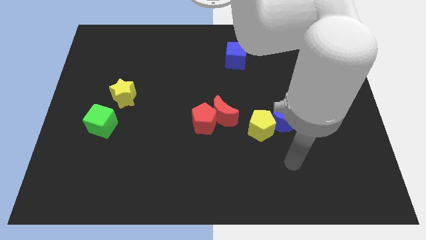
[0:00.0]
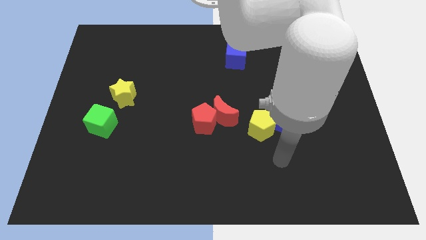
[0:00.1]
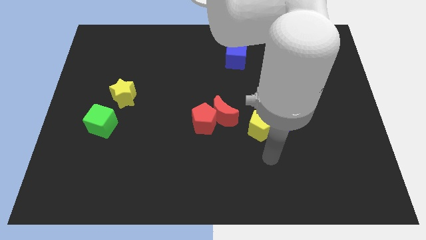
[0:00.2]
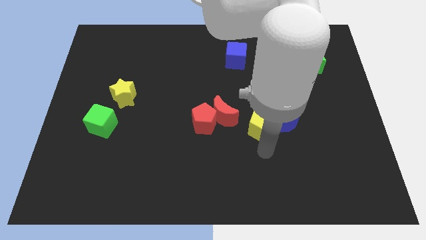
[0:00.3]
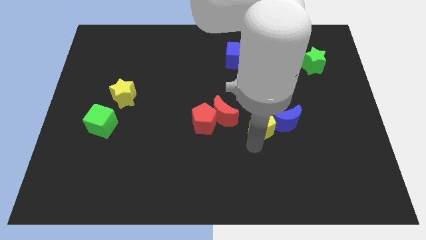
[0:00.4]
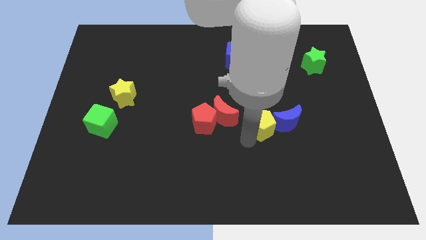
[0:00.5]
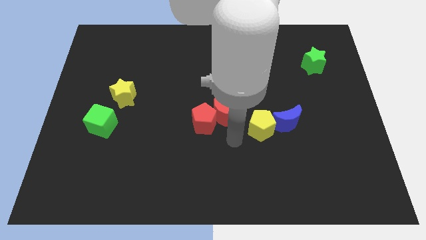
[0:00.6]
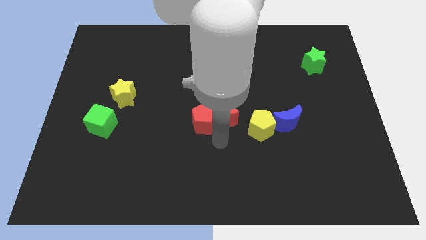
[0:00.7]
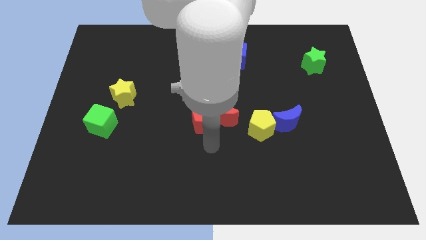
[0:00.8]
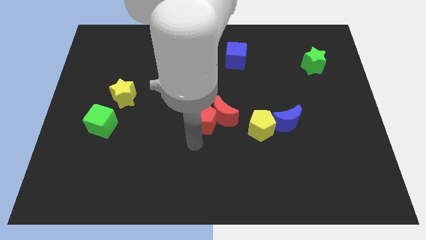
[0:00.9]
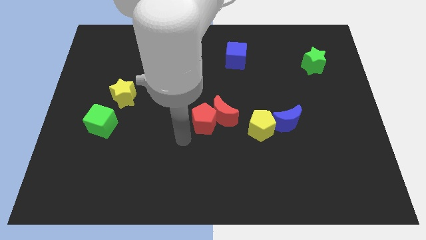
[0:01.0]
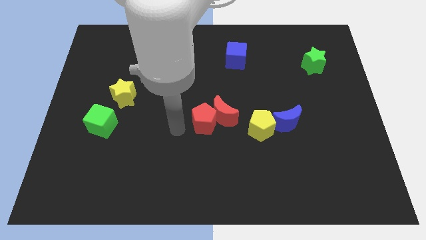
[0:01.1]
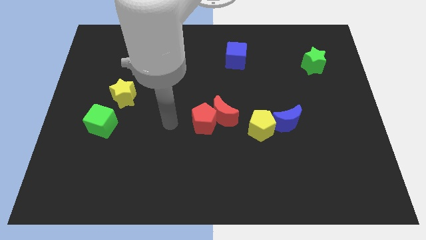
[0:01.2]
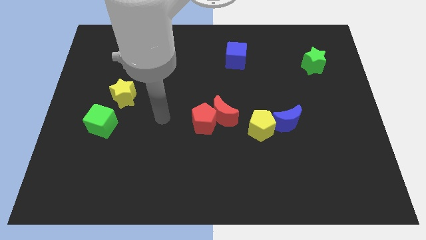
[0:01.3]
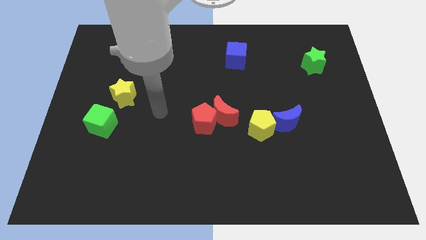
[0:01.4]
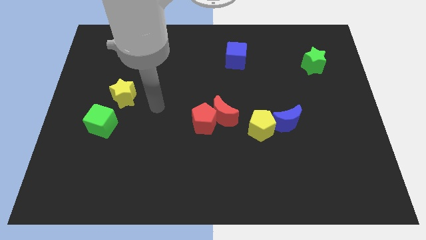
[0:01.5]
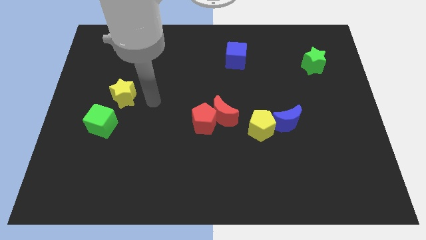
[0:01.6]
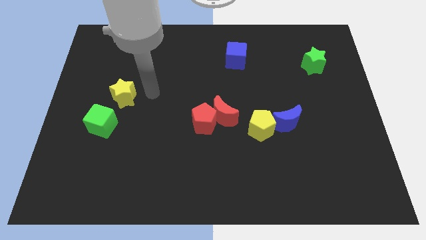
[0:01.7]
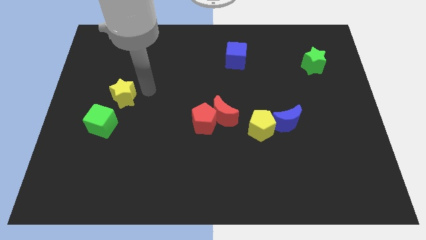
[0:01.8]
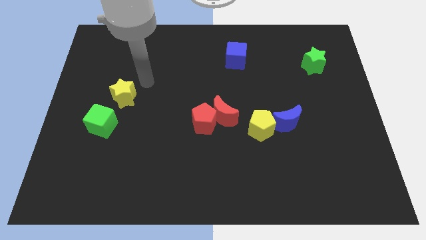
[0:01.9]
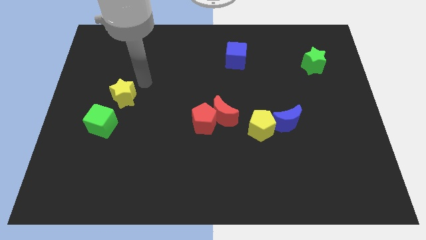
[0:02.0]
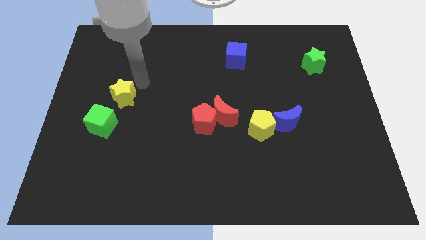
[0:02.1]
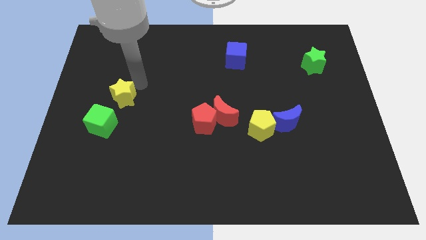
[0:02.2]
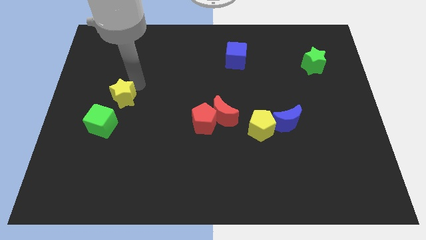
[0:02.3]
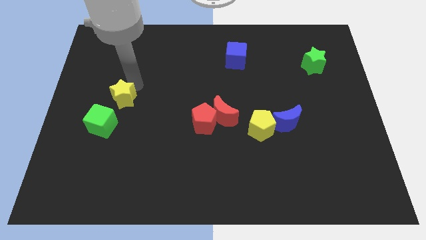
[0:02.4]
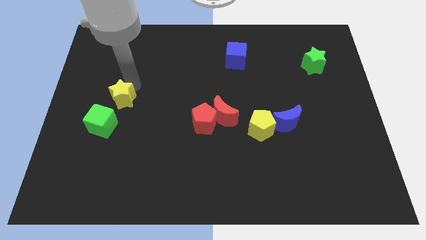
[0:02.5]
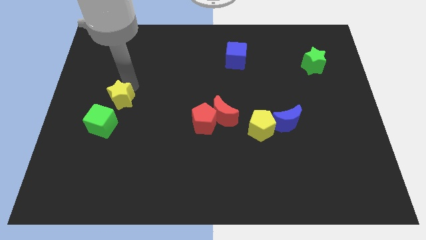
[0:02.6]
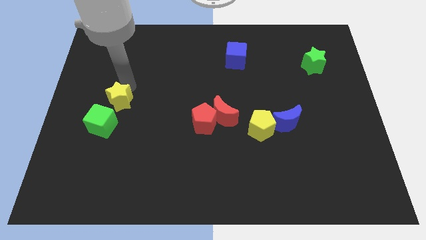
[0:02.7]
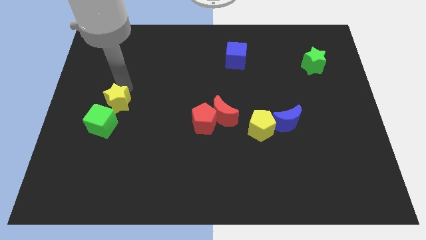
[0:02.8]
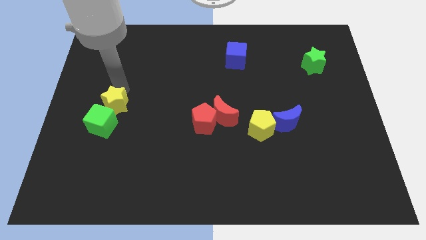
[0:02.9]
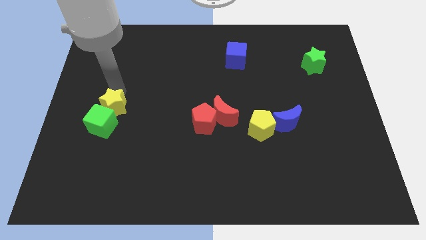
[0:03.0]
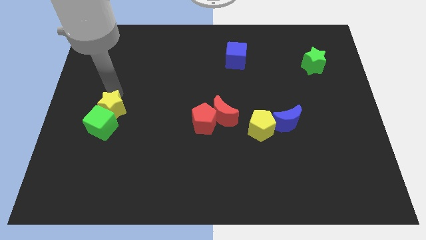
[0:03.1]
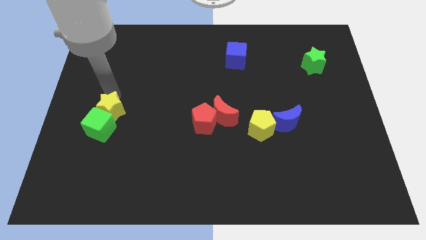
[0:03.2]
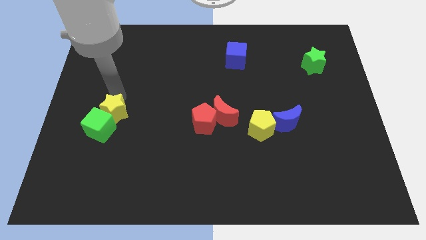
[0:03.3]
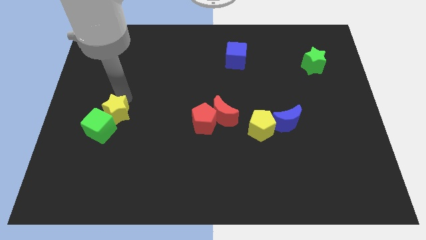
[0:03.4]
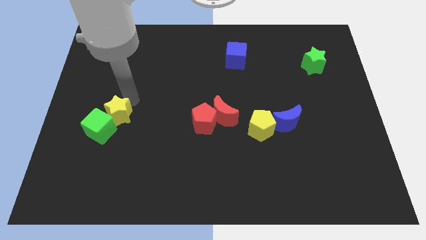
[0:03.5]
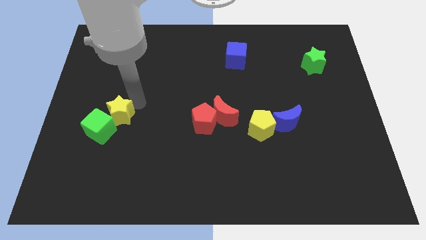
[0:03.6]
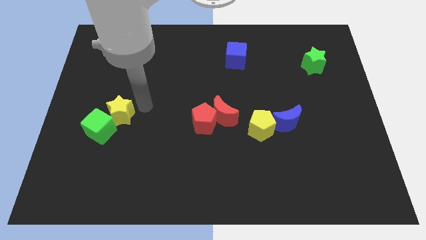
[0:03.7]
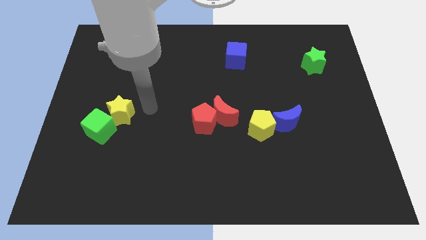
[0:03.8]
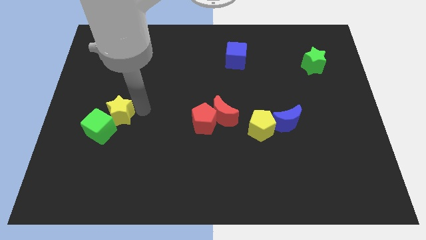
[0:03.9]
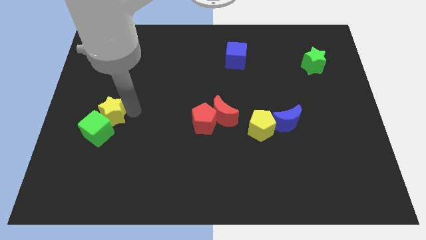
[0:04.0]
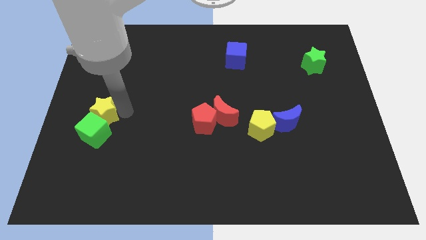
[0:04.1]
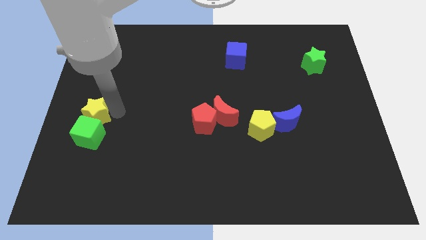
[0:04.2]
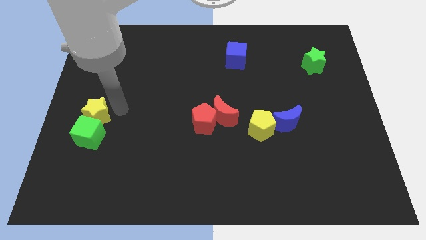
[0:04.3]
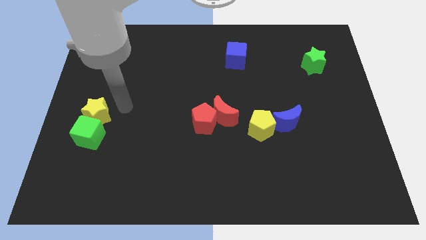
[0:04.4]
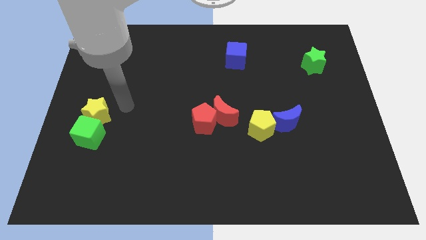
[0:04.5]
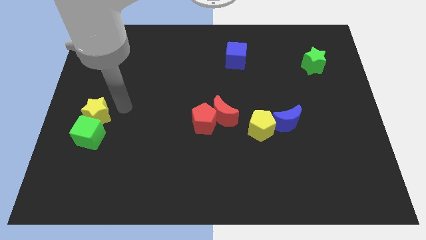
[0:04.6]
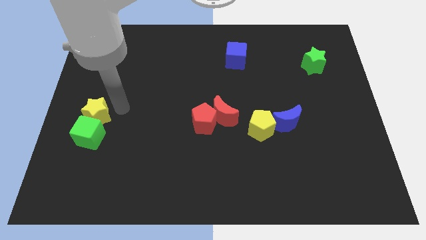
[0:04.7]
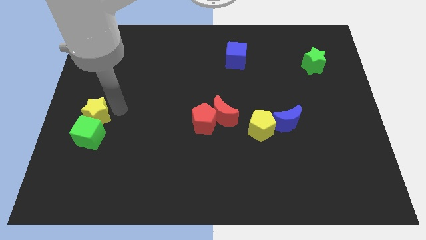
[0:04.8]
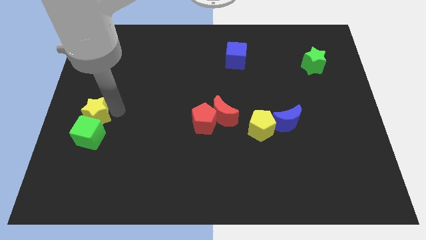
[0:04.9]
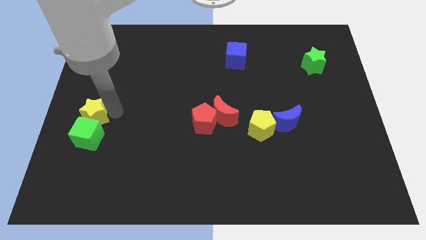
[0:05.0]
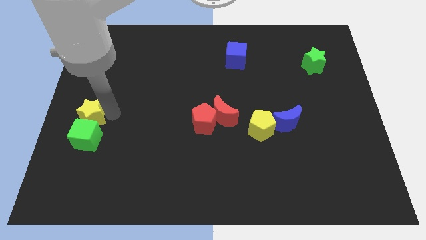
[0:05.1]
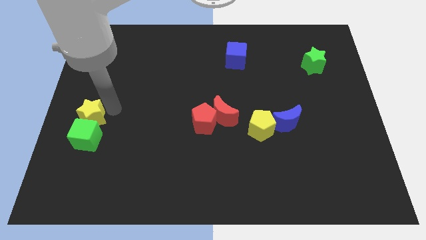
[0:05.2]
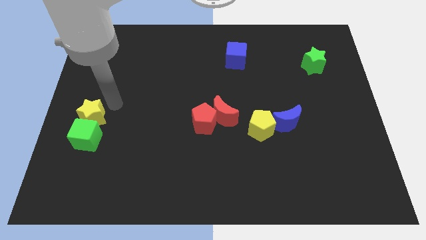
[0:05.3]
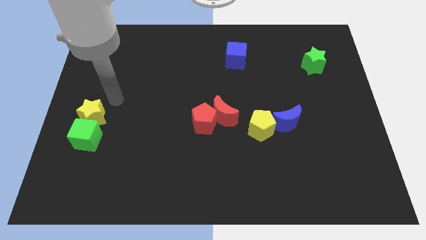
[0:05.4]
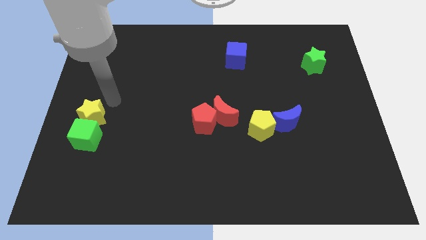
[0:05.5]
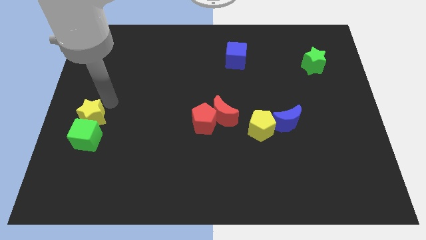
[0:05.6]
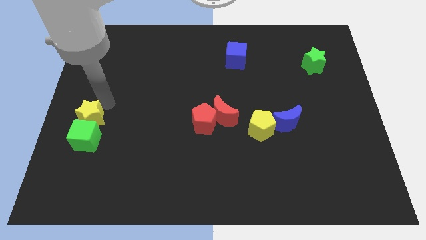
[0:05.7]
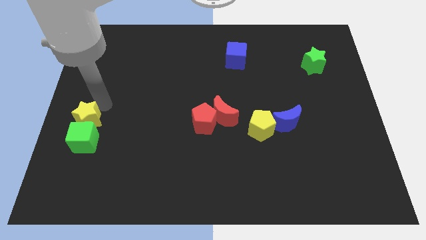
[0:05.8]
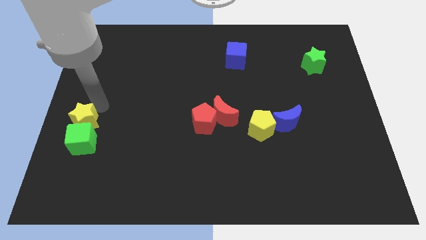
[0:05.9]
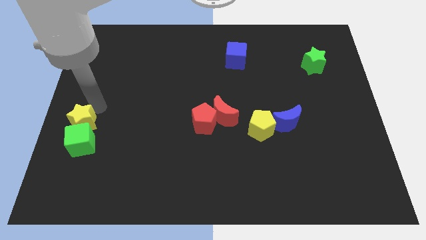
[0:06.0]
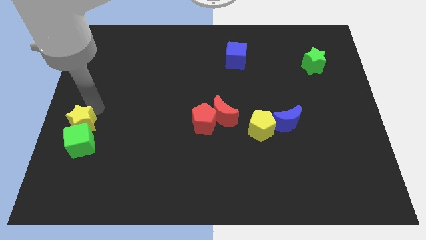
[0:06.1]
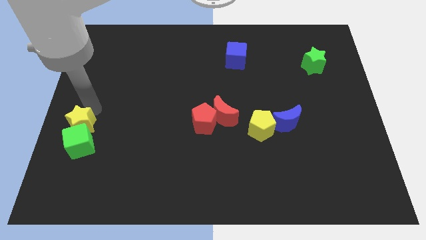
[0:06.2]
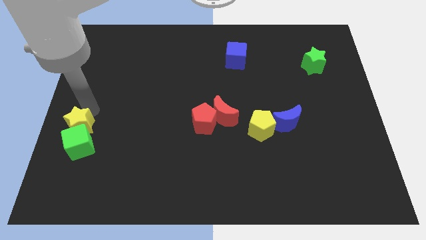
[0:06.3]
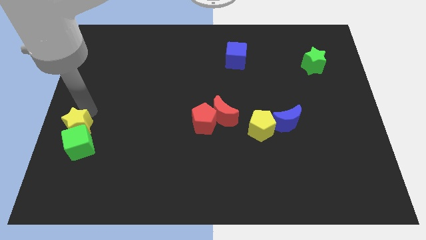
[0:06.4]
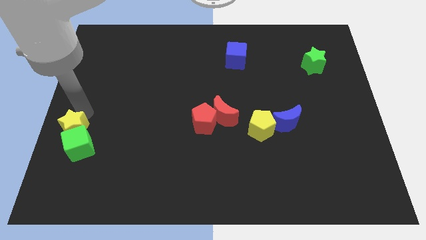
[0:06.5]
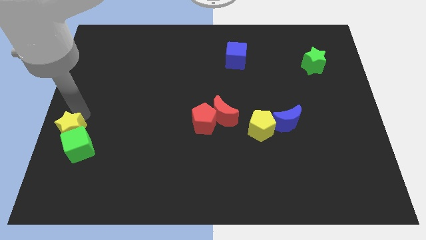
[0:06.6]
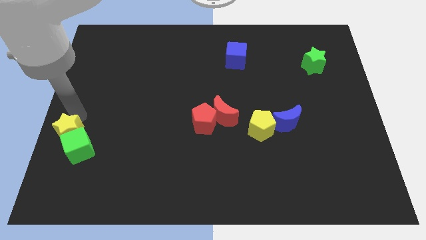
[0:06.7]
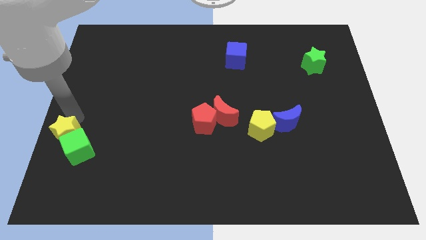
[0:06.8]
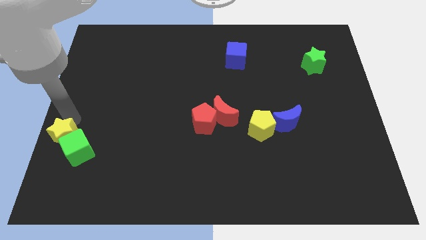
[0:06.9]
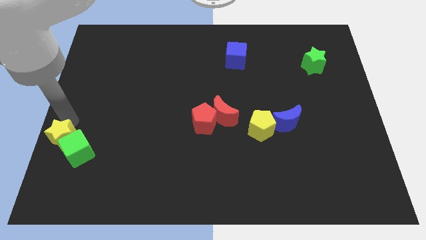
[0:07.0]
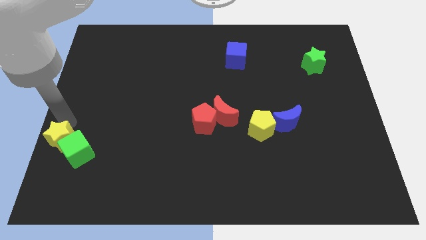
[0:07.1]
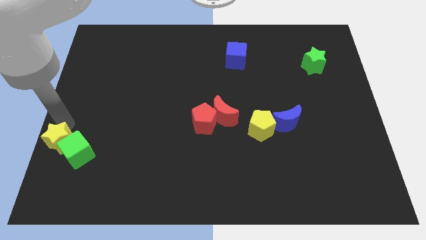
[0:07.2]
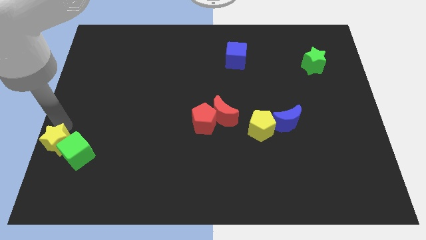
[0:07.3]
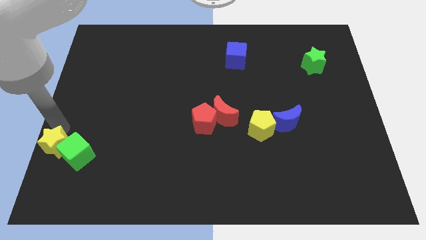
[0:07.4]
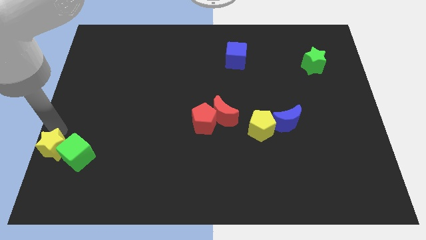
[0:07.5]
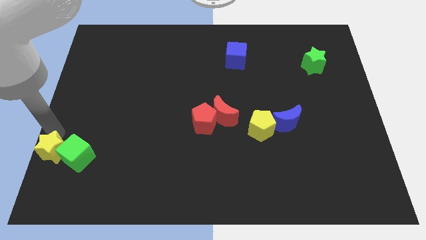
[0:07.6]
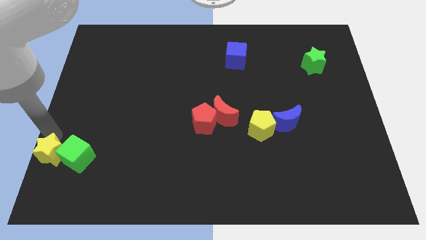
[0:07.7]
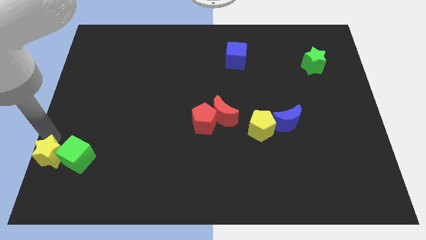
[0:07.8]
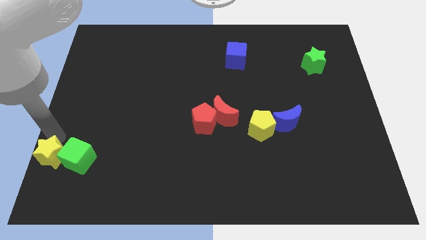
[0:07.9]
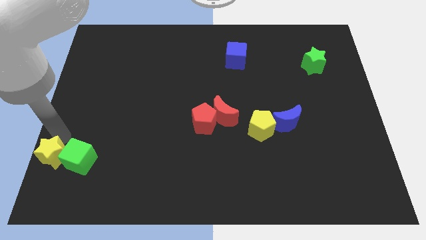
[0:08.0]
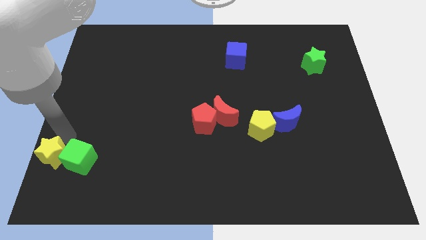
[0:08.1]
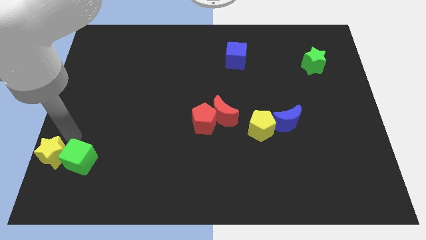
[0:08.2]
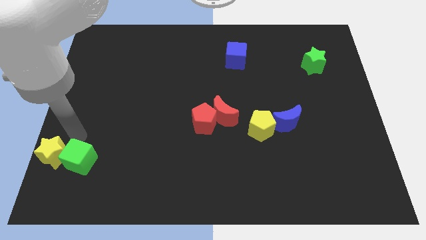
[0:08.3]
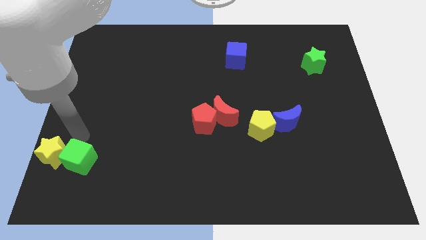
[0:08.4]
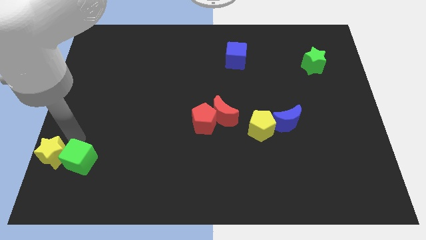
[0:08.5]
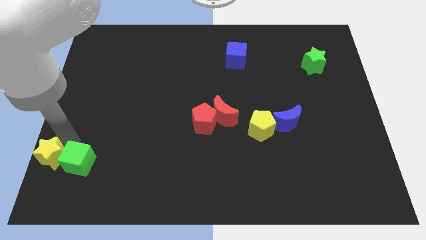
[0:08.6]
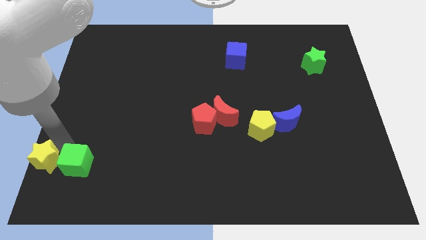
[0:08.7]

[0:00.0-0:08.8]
push the yellow star to the bottom left
